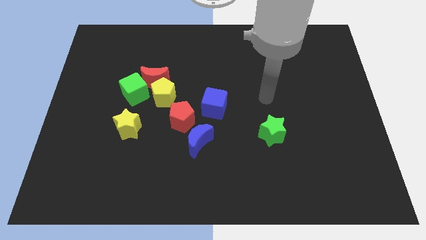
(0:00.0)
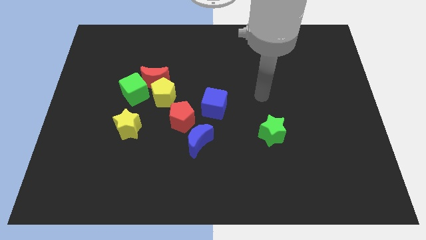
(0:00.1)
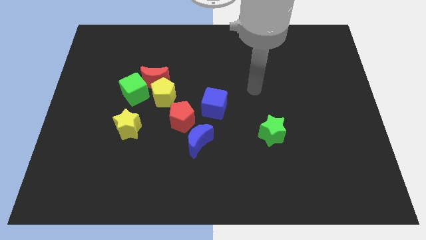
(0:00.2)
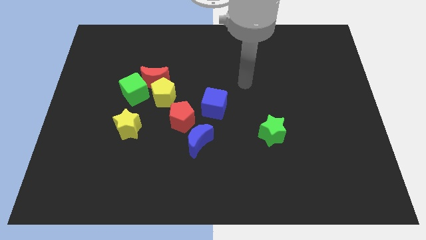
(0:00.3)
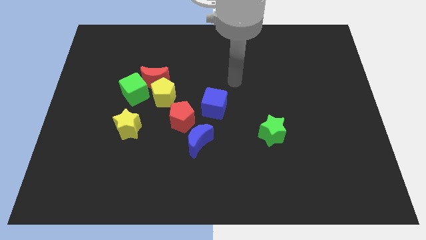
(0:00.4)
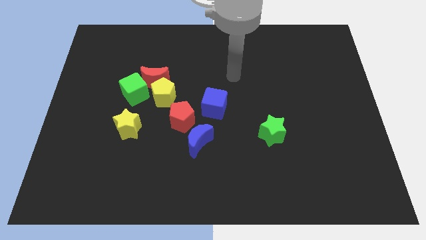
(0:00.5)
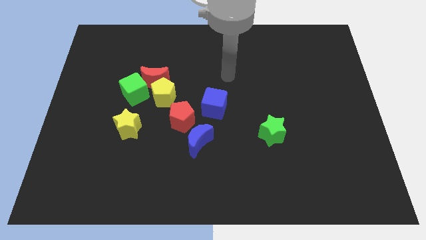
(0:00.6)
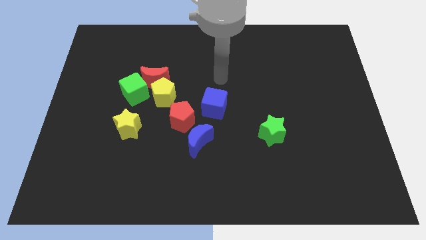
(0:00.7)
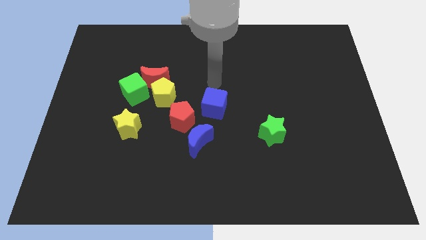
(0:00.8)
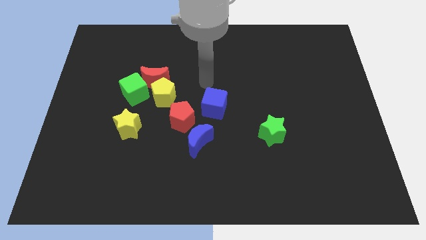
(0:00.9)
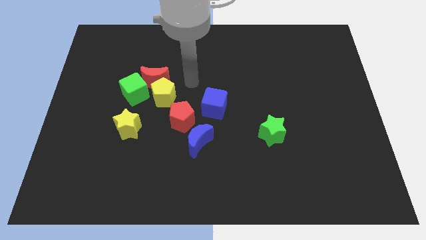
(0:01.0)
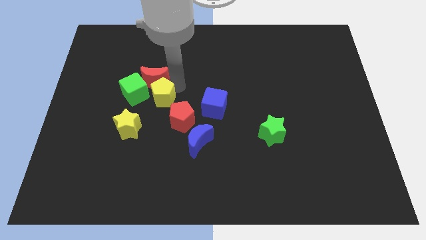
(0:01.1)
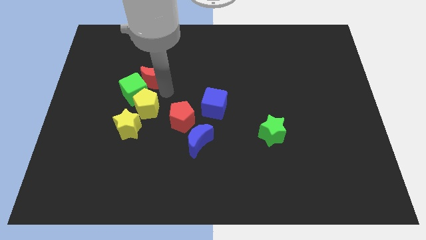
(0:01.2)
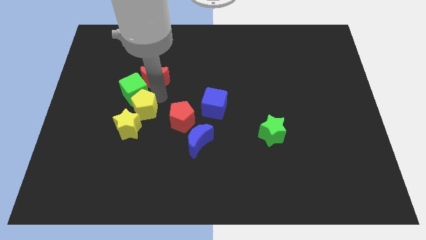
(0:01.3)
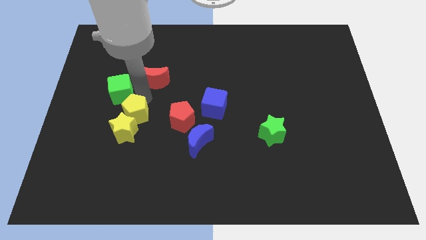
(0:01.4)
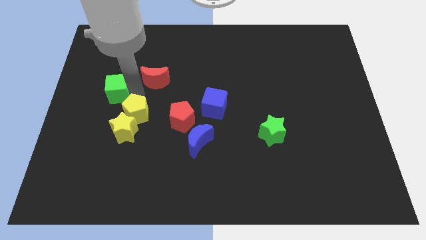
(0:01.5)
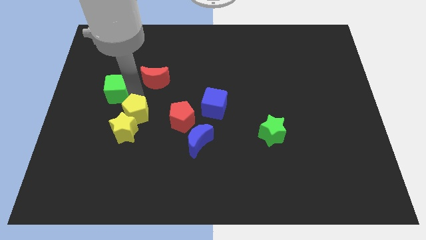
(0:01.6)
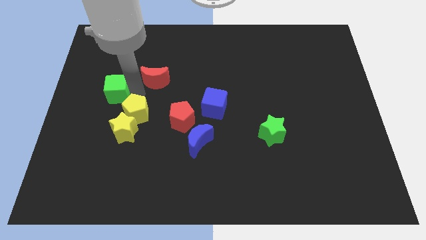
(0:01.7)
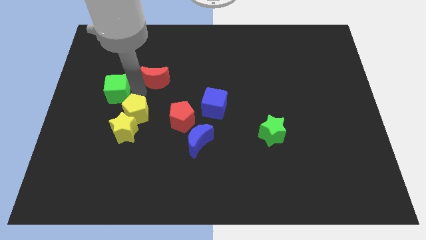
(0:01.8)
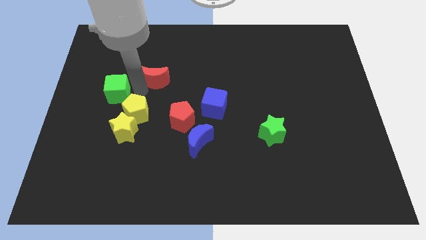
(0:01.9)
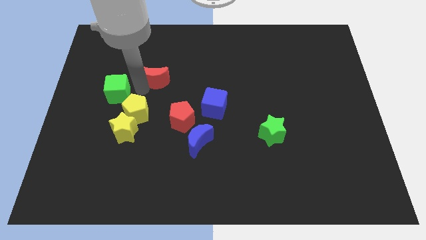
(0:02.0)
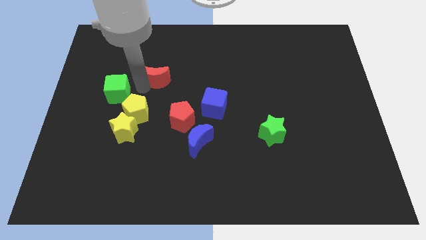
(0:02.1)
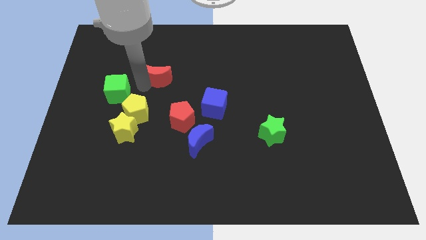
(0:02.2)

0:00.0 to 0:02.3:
pull the red moon apart from the yellow pentagon and green cube

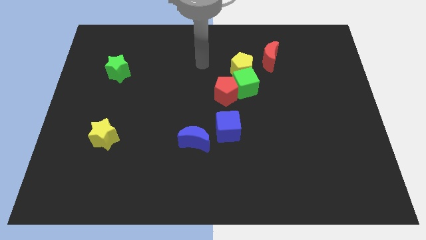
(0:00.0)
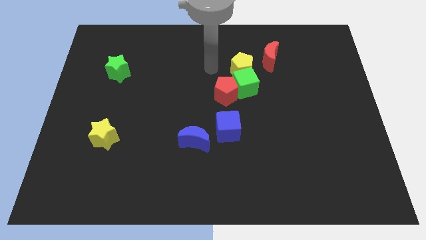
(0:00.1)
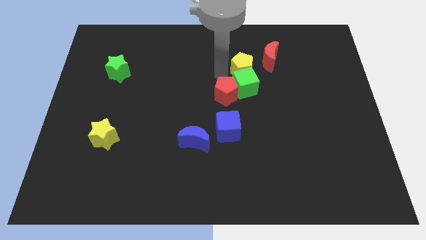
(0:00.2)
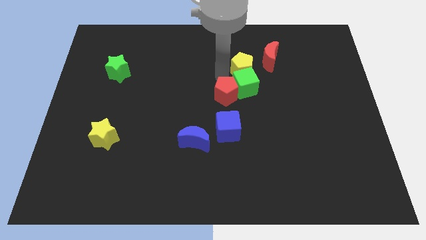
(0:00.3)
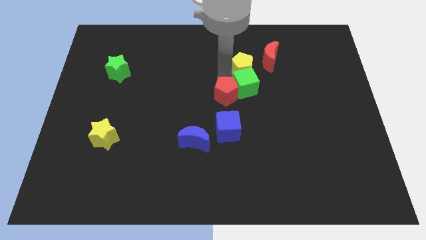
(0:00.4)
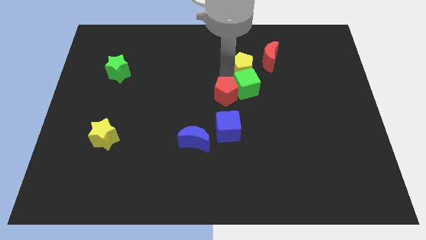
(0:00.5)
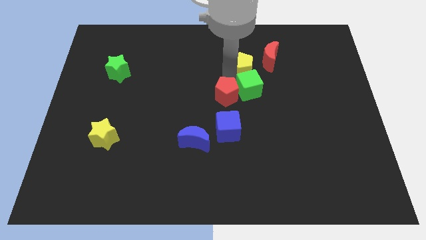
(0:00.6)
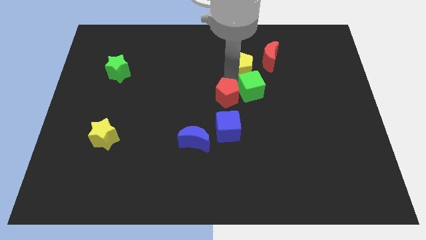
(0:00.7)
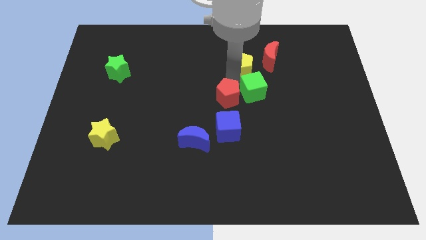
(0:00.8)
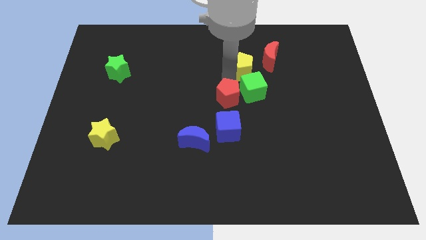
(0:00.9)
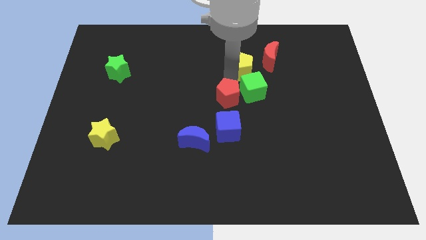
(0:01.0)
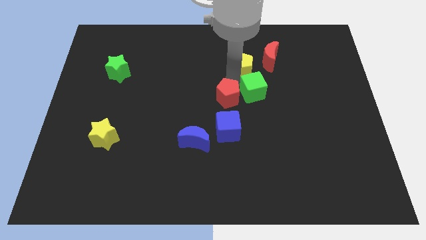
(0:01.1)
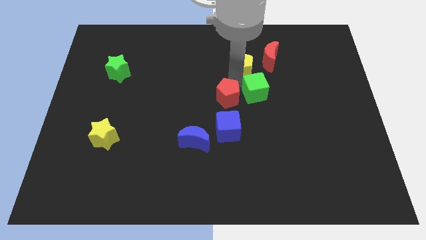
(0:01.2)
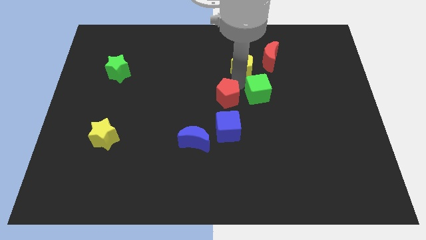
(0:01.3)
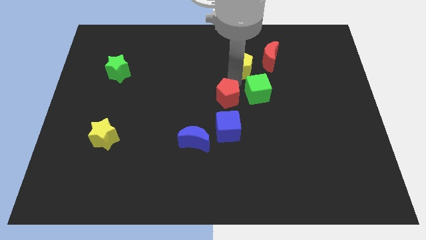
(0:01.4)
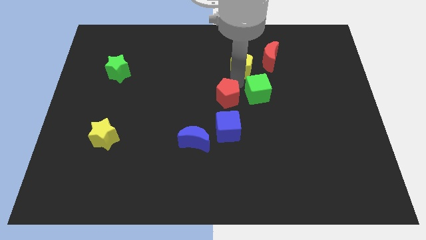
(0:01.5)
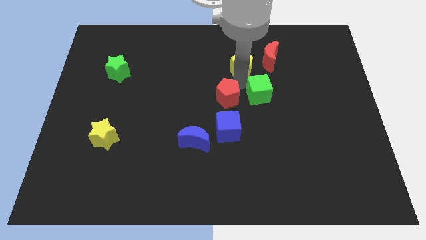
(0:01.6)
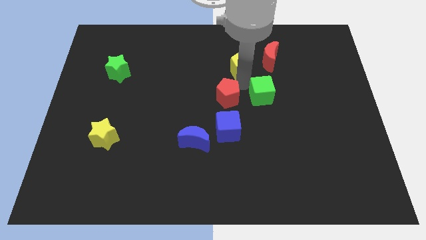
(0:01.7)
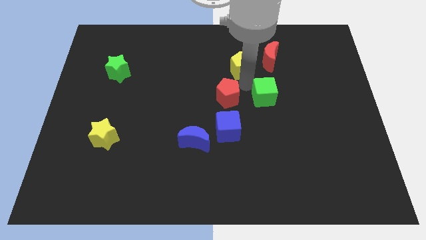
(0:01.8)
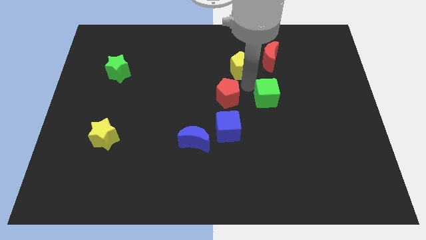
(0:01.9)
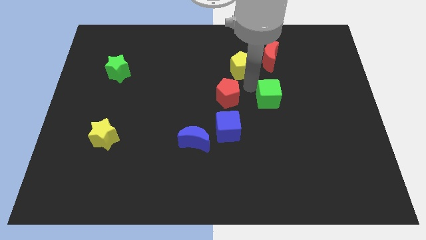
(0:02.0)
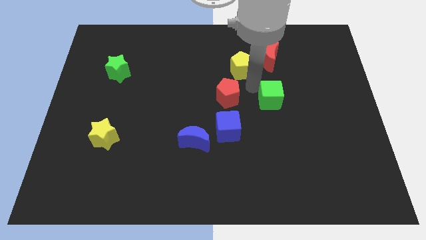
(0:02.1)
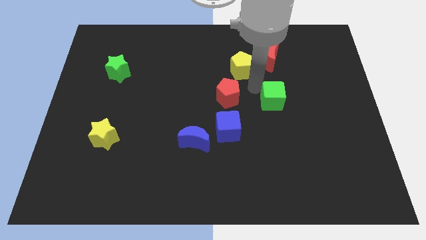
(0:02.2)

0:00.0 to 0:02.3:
move the green cube away from the red pentagon and yellow pentagon

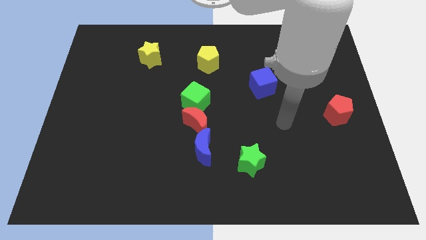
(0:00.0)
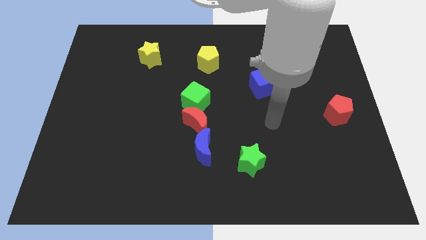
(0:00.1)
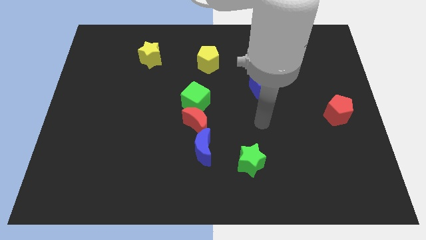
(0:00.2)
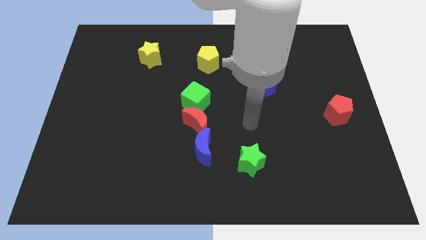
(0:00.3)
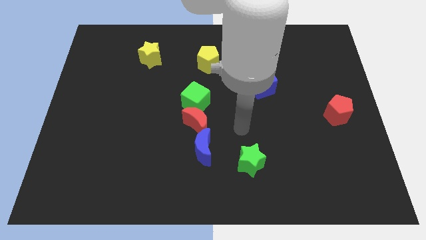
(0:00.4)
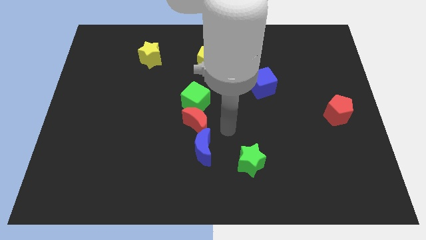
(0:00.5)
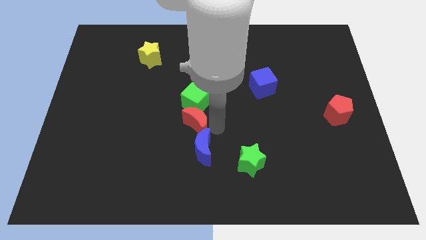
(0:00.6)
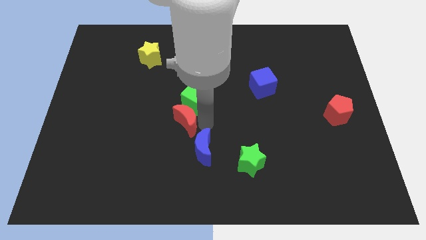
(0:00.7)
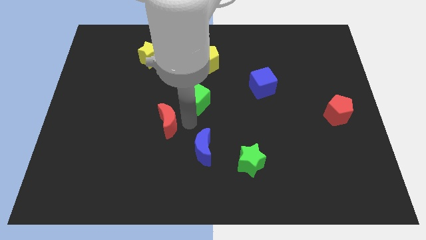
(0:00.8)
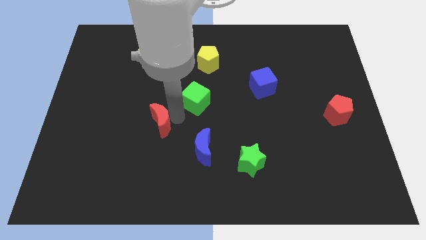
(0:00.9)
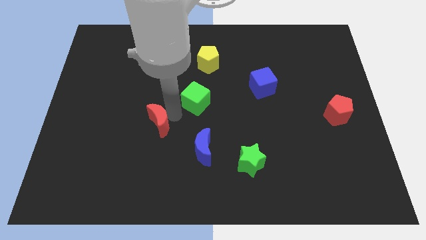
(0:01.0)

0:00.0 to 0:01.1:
pull the green cube apart from the red moon

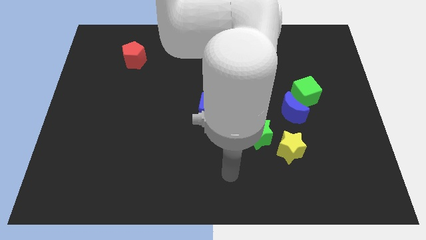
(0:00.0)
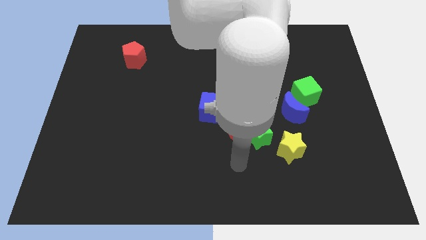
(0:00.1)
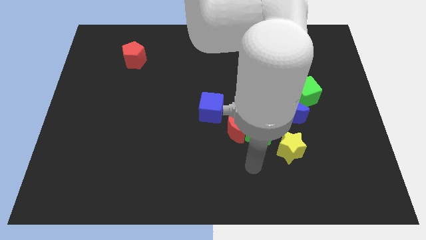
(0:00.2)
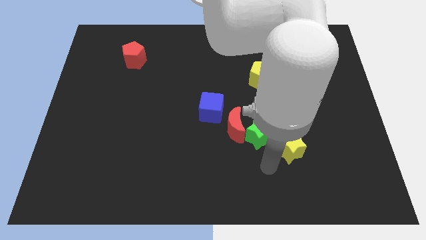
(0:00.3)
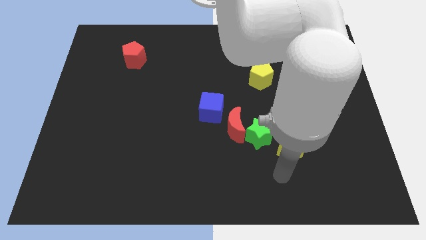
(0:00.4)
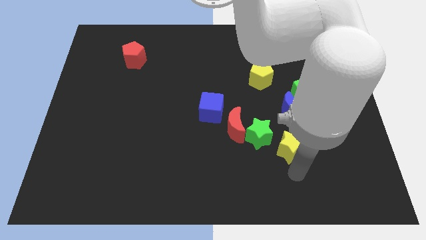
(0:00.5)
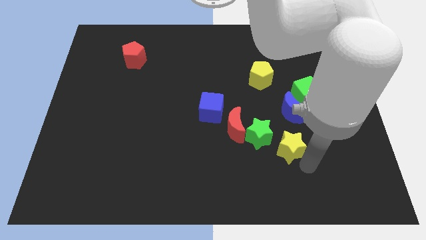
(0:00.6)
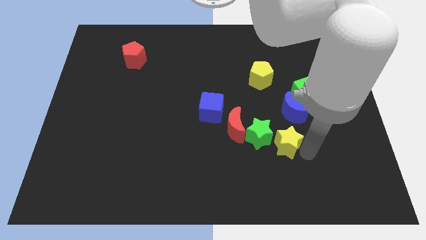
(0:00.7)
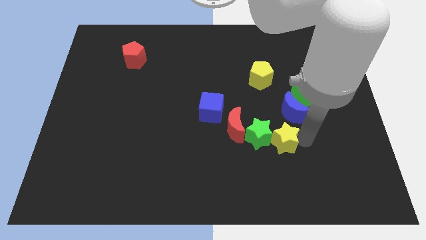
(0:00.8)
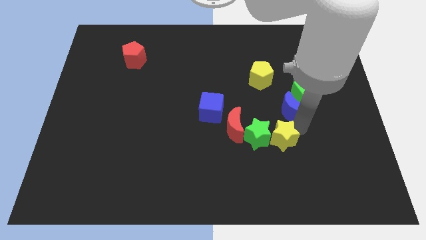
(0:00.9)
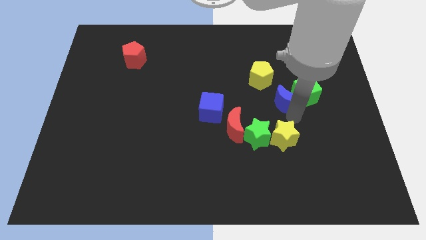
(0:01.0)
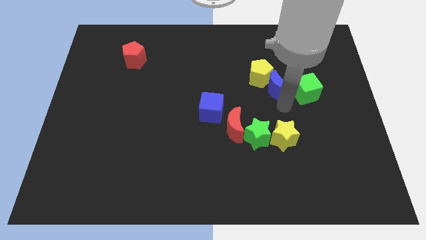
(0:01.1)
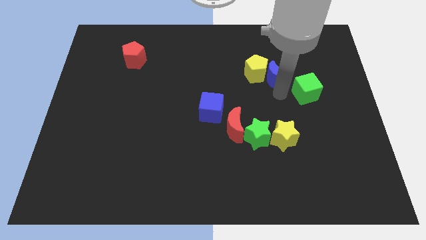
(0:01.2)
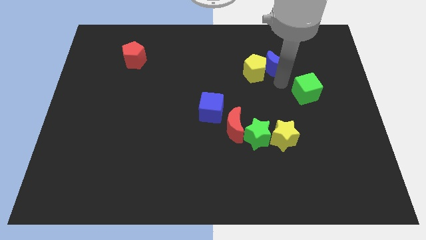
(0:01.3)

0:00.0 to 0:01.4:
separate the green cube from the blue moon

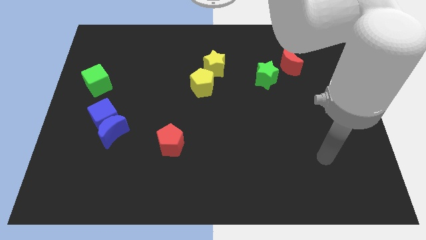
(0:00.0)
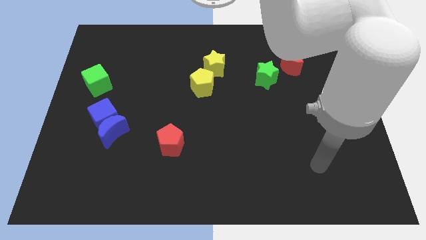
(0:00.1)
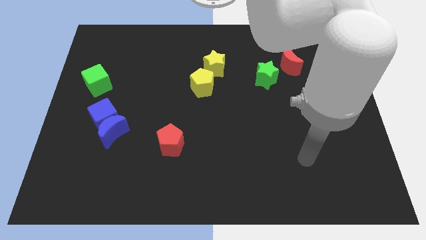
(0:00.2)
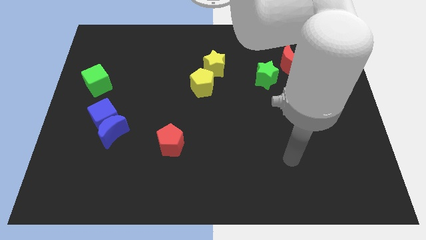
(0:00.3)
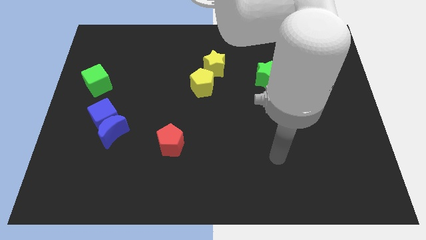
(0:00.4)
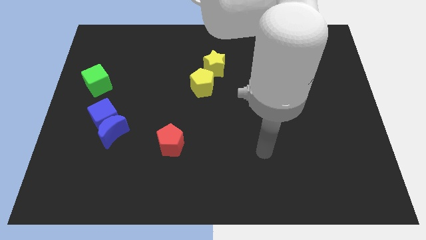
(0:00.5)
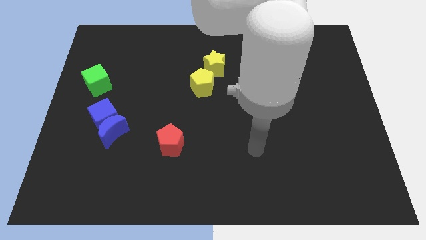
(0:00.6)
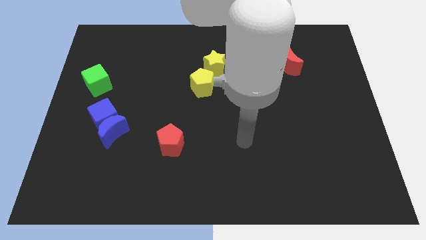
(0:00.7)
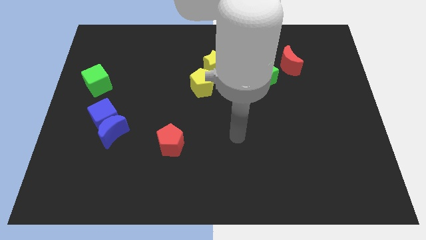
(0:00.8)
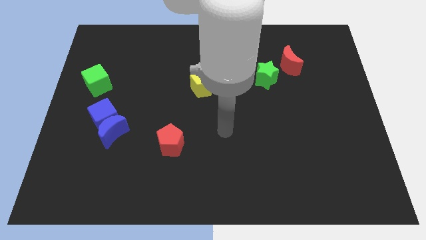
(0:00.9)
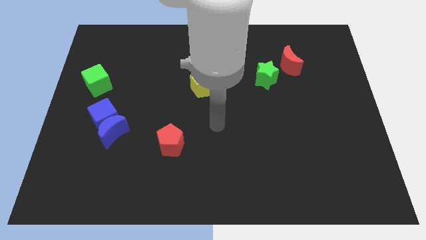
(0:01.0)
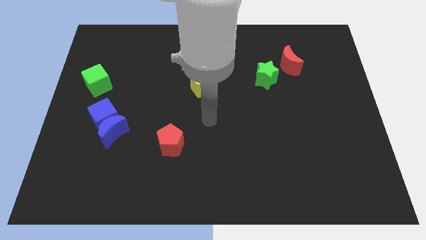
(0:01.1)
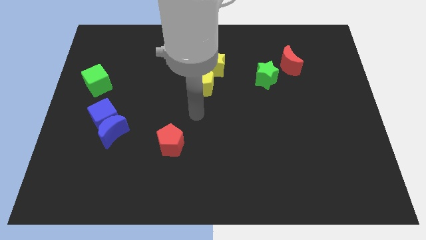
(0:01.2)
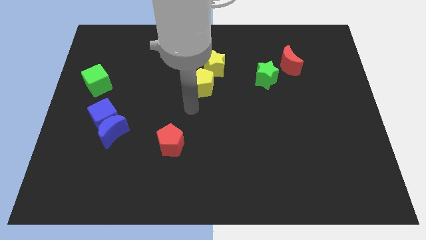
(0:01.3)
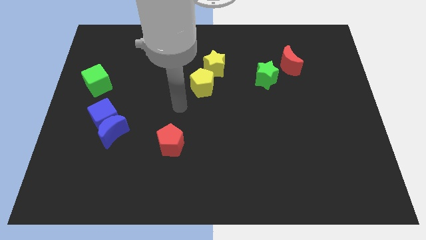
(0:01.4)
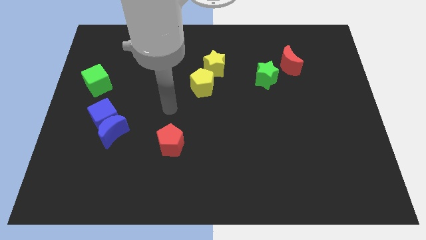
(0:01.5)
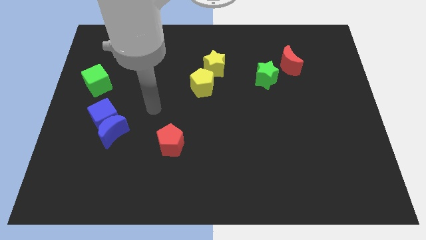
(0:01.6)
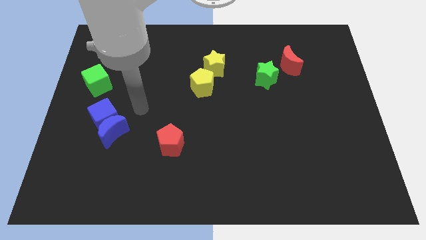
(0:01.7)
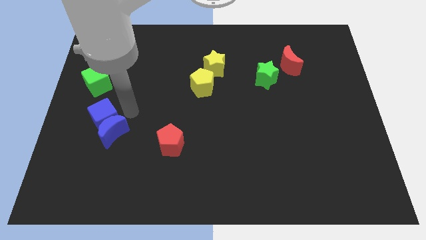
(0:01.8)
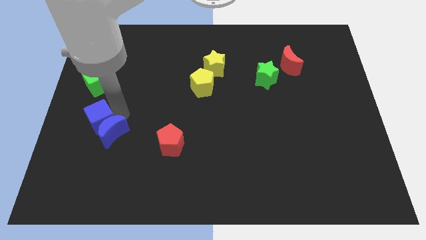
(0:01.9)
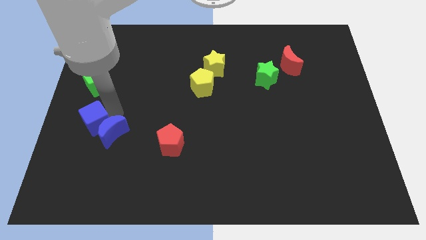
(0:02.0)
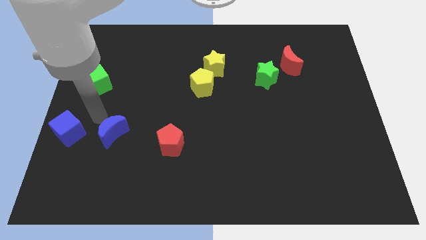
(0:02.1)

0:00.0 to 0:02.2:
move the blue moon away from the blue cube
